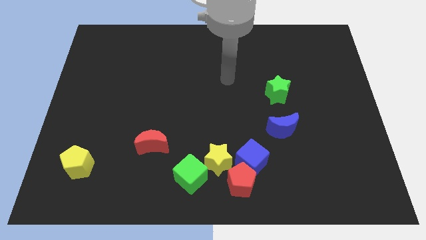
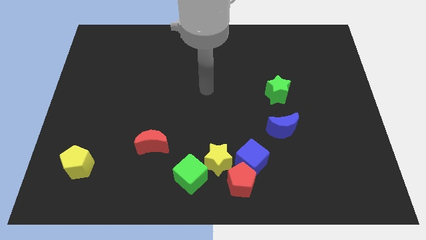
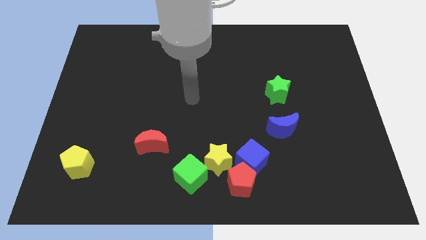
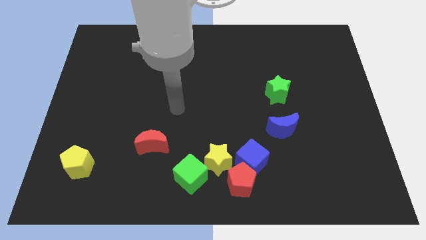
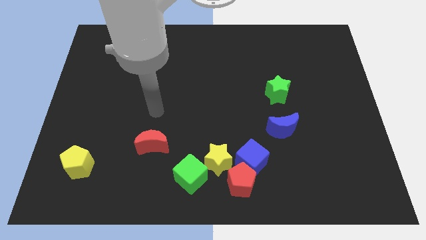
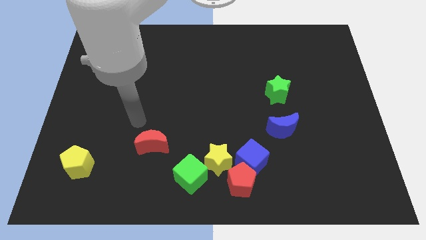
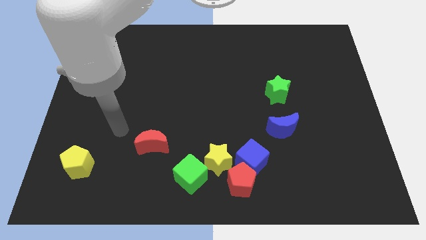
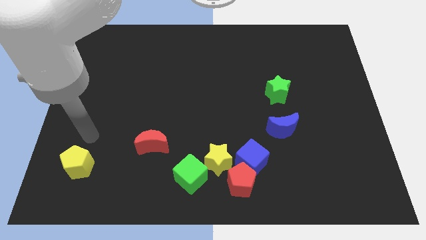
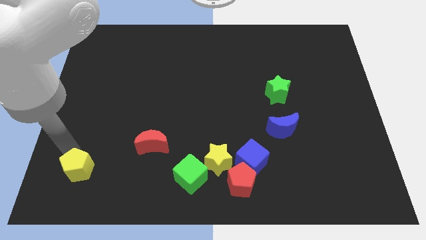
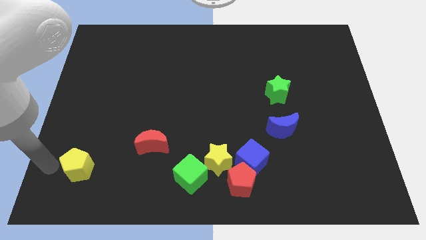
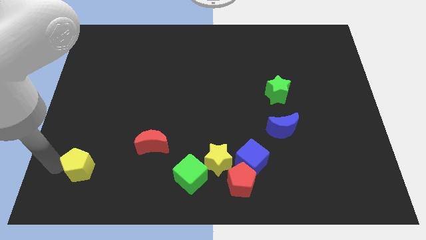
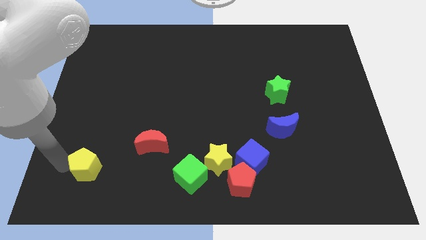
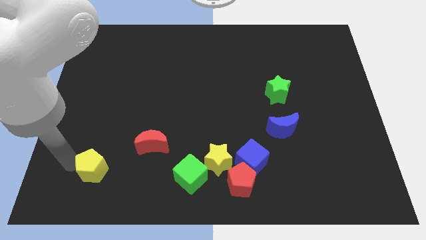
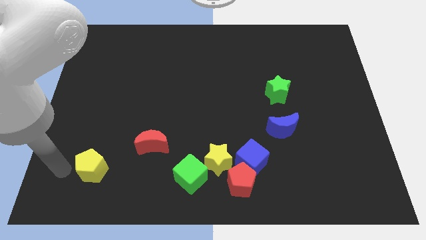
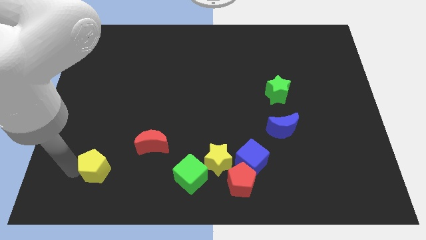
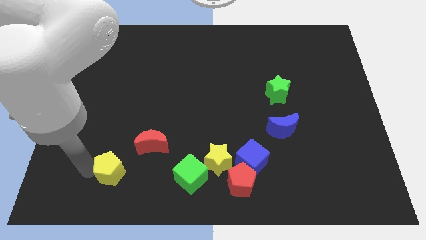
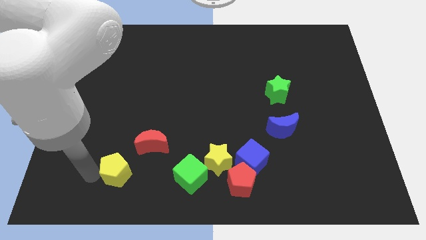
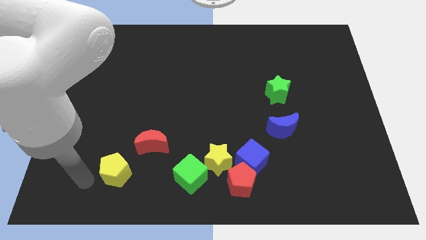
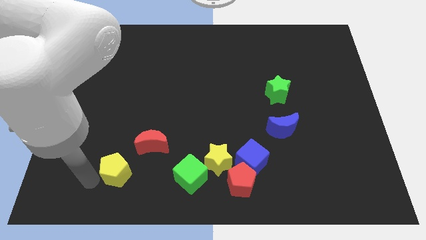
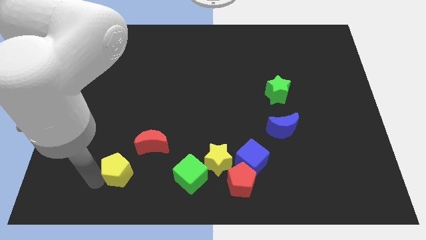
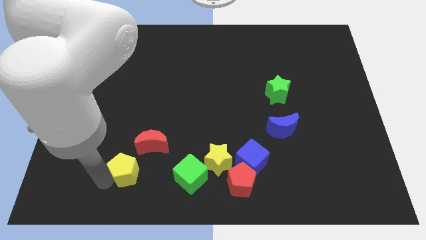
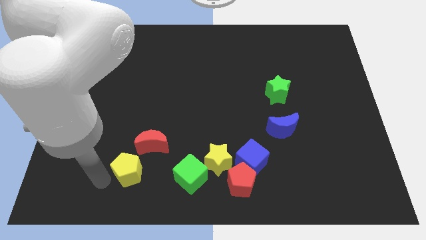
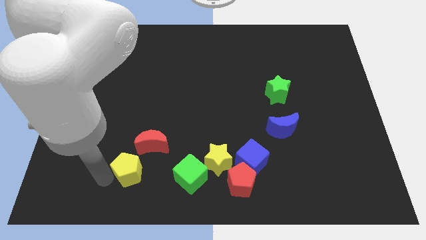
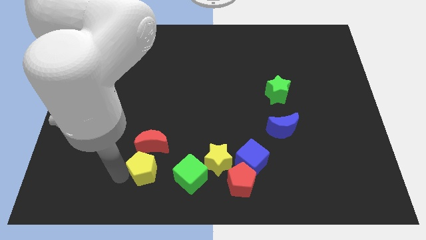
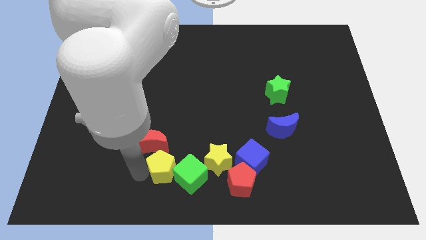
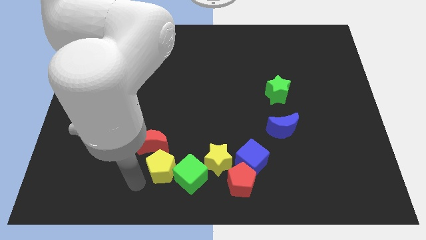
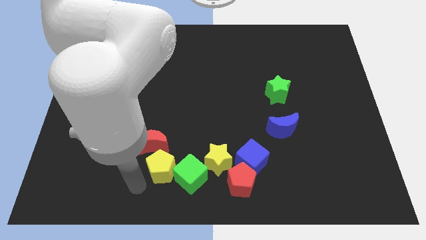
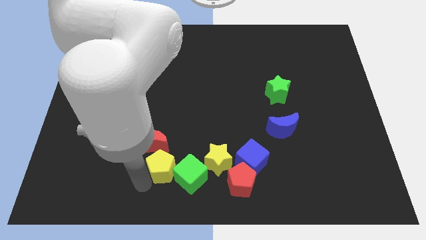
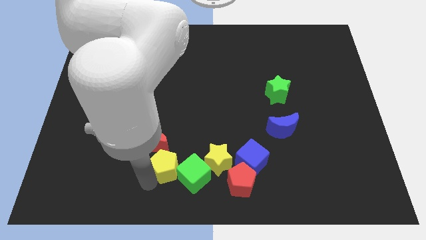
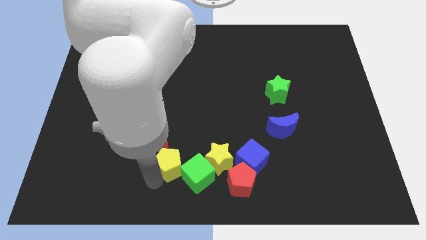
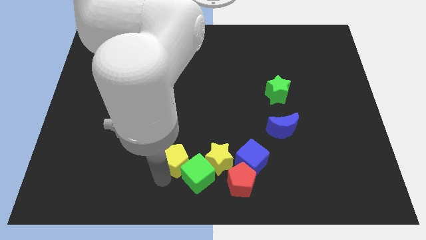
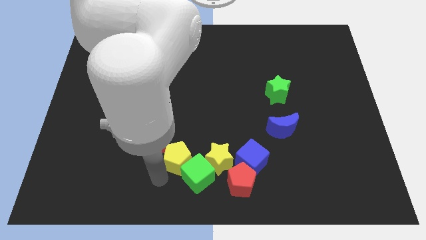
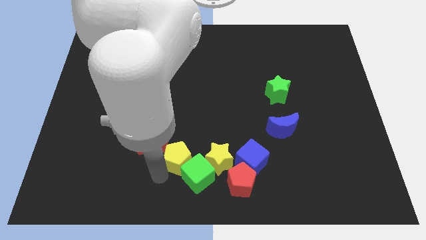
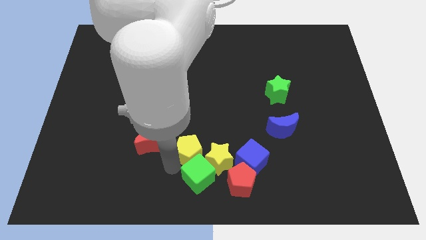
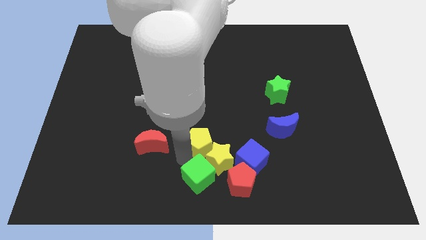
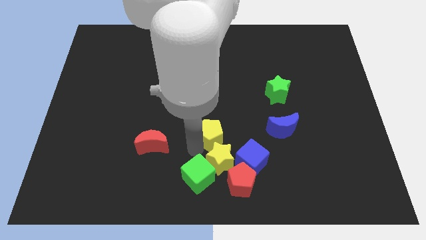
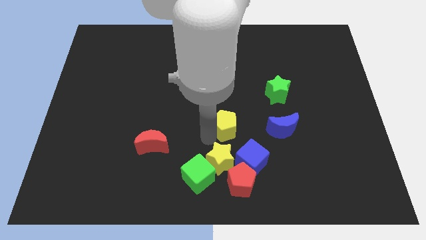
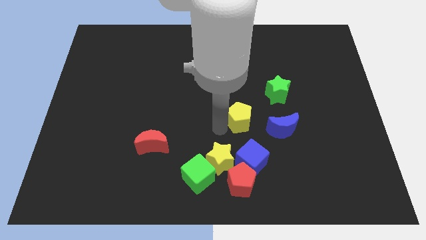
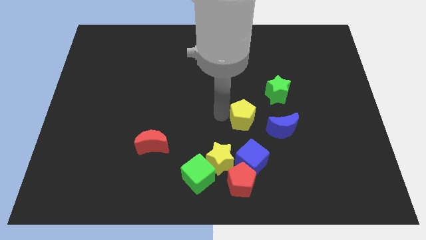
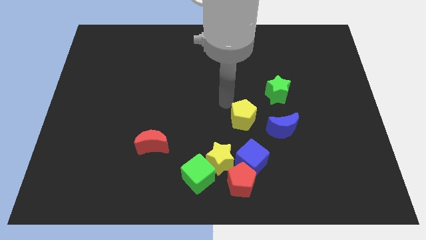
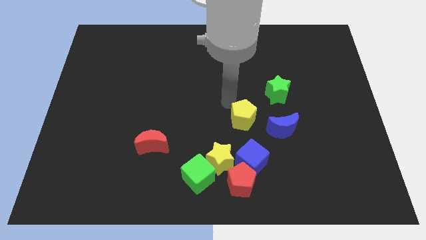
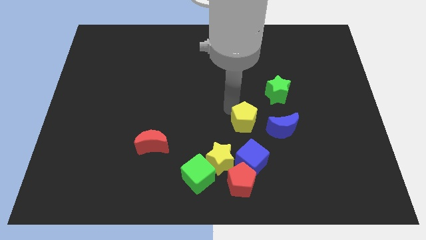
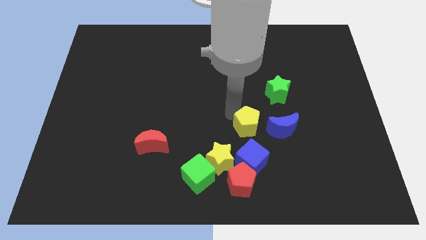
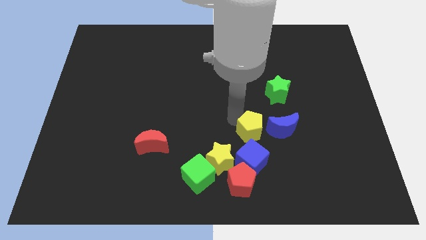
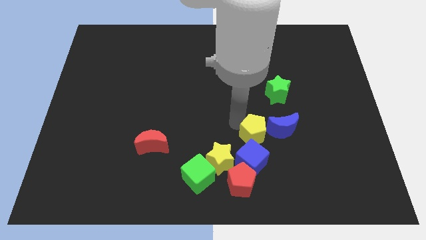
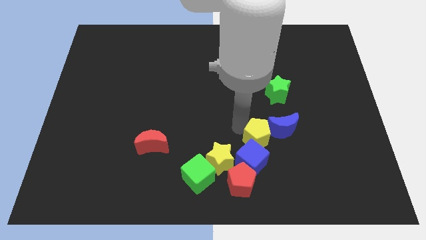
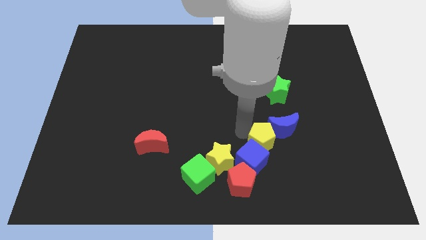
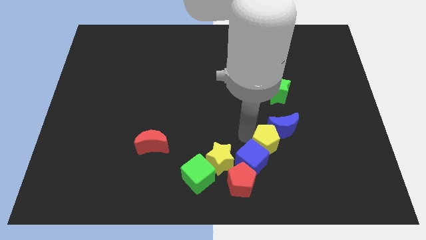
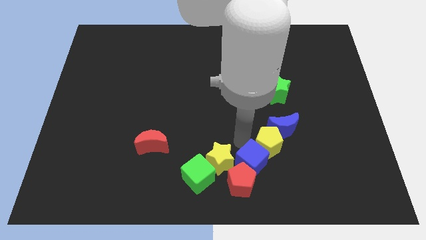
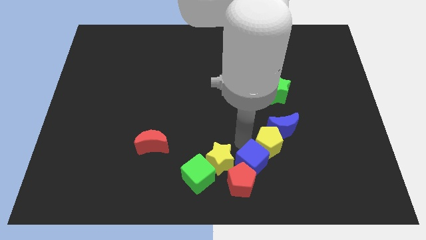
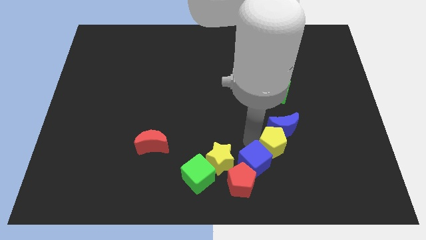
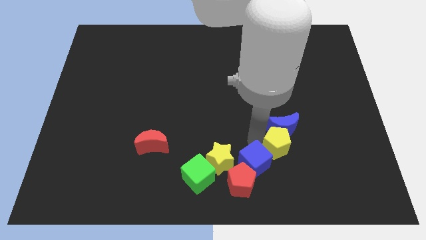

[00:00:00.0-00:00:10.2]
push the yellow pentagon diagonally down and to the right of the blue moon
